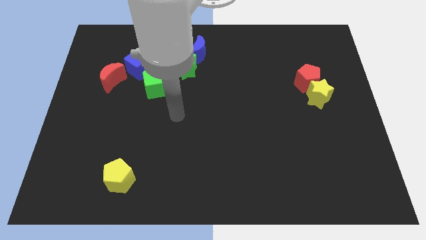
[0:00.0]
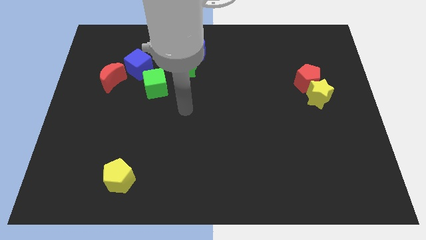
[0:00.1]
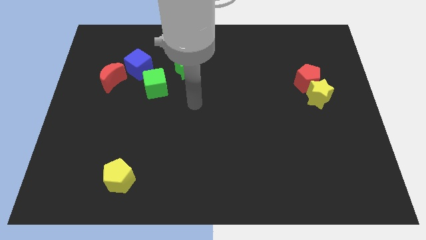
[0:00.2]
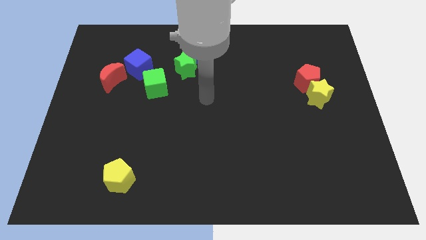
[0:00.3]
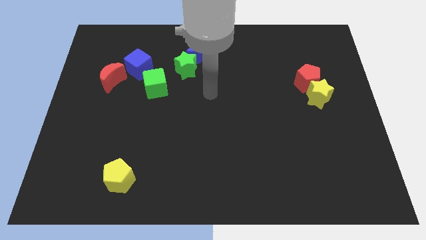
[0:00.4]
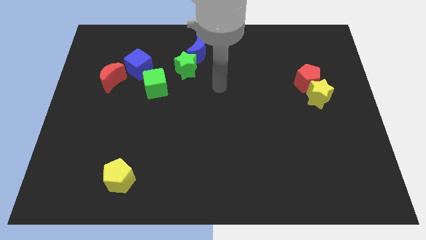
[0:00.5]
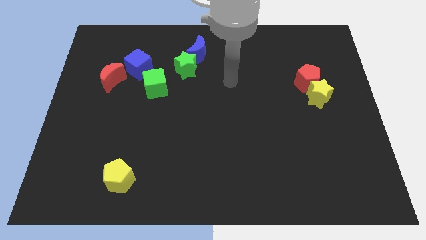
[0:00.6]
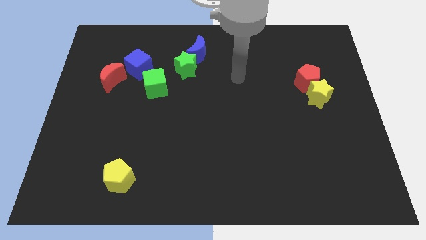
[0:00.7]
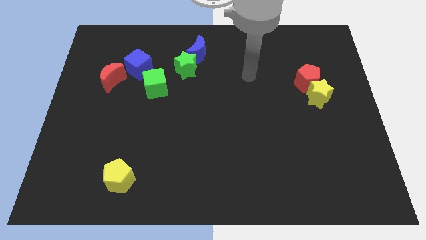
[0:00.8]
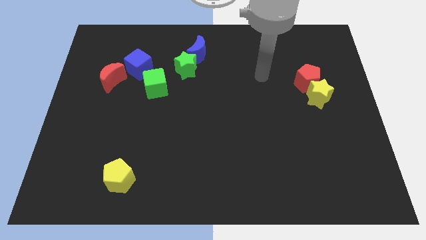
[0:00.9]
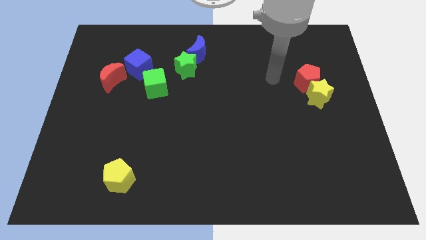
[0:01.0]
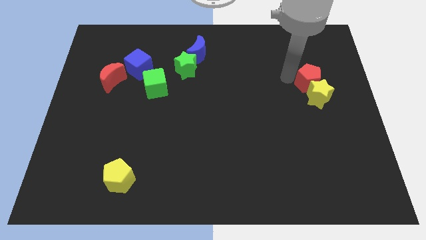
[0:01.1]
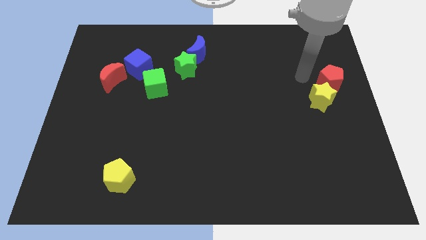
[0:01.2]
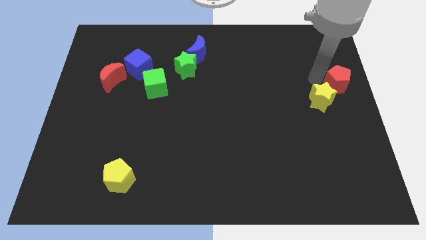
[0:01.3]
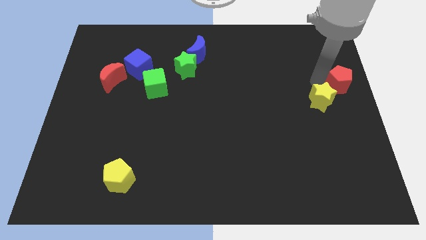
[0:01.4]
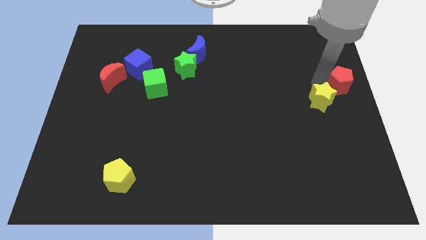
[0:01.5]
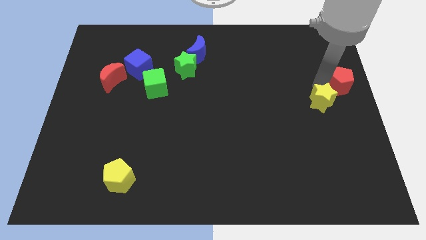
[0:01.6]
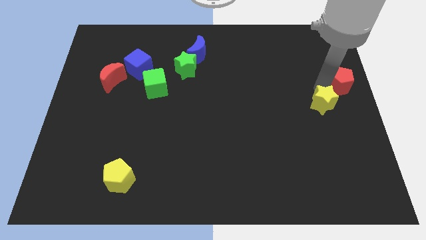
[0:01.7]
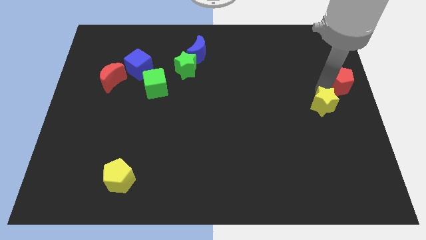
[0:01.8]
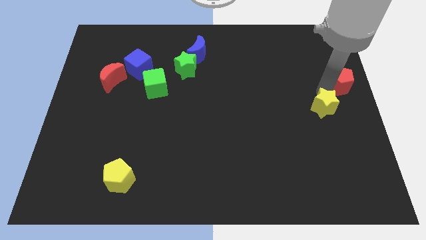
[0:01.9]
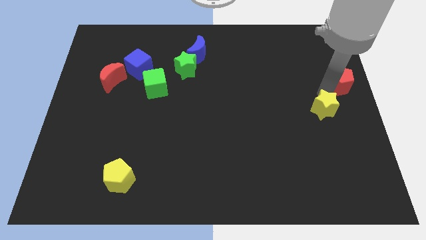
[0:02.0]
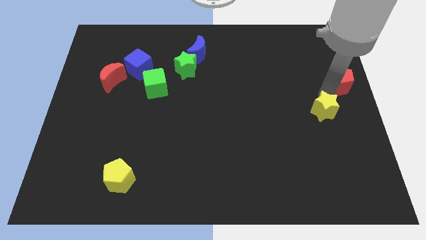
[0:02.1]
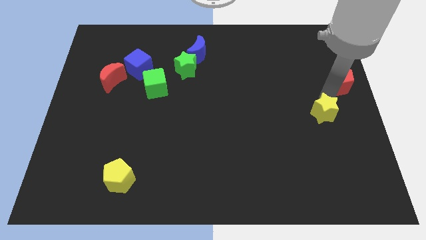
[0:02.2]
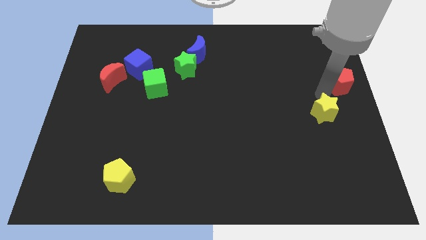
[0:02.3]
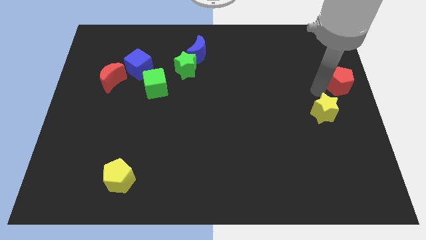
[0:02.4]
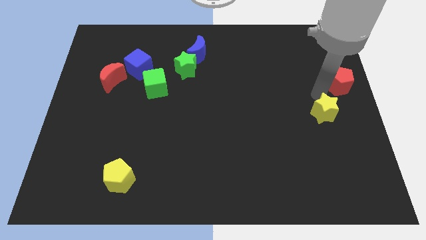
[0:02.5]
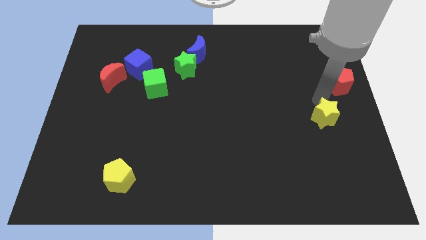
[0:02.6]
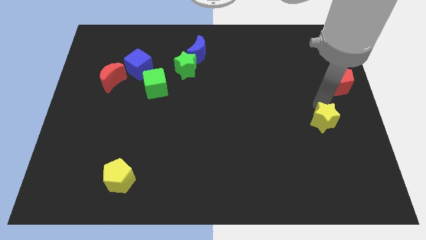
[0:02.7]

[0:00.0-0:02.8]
slightly move the yellow star downwards

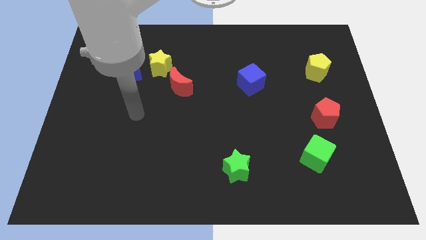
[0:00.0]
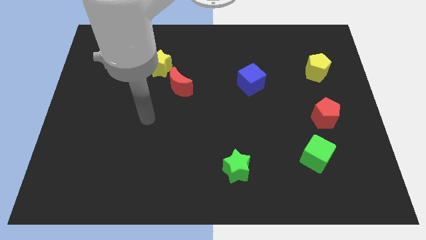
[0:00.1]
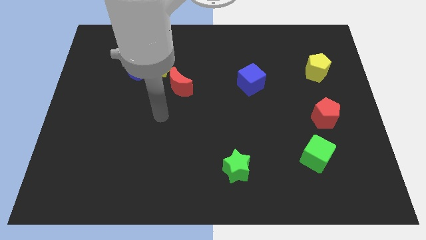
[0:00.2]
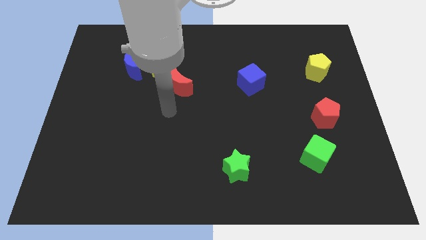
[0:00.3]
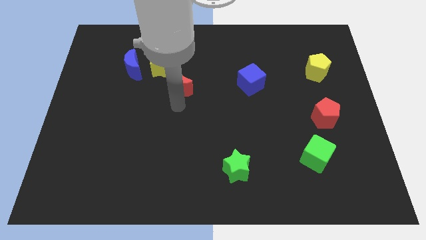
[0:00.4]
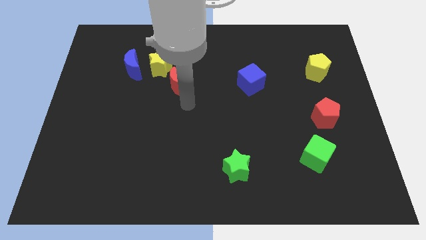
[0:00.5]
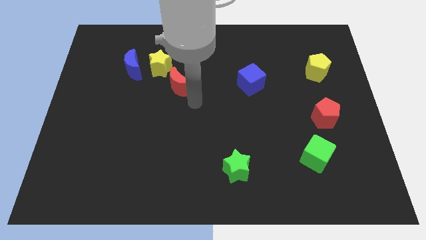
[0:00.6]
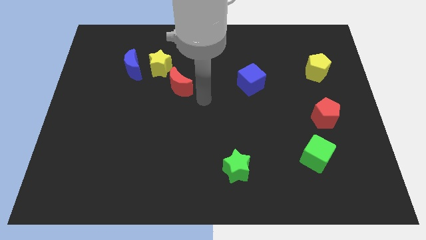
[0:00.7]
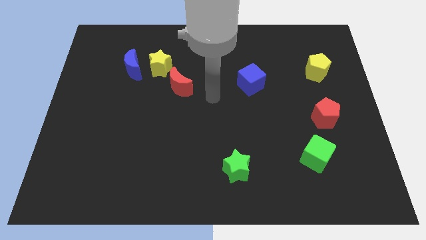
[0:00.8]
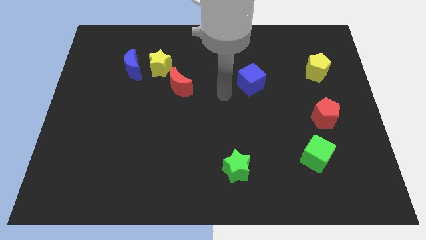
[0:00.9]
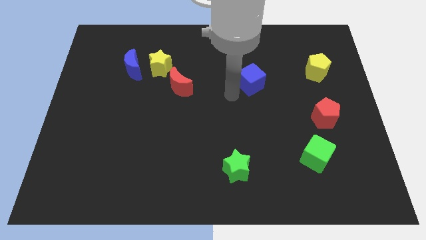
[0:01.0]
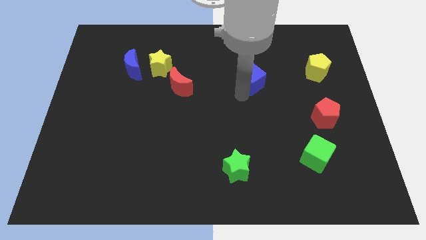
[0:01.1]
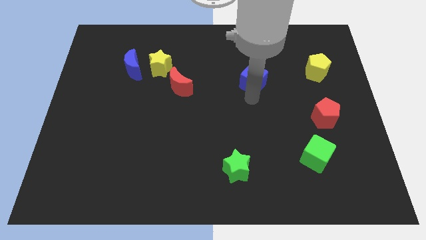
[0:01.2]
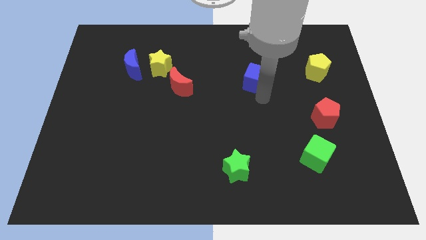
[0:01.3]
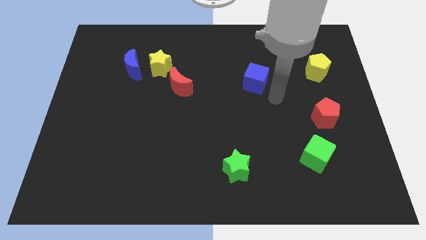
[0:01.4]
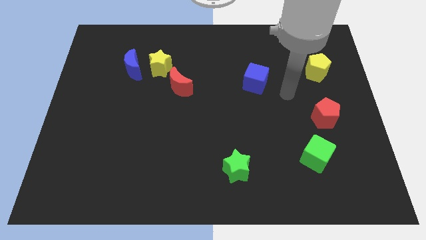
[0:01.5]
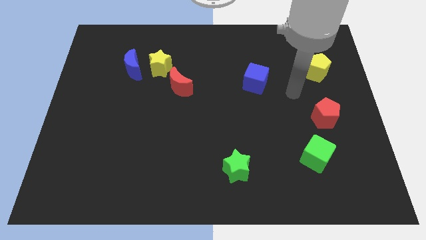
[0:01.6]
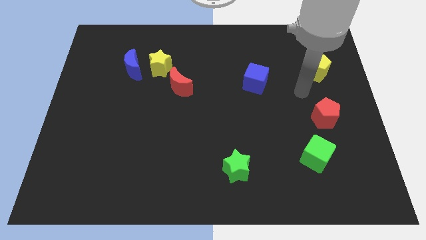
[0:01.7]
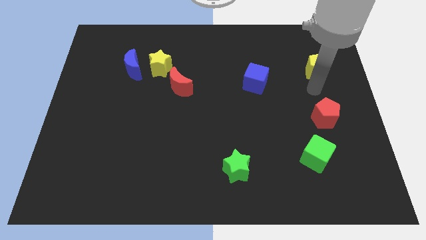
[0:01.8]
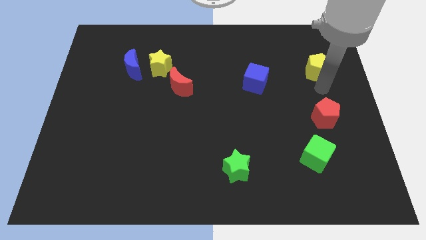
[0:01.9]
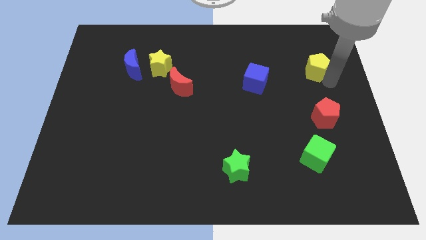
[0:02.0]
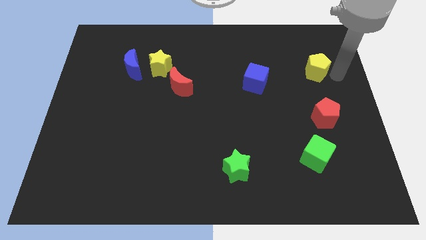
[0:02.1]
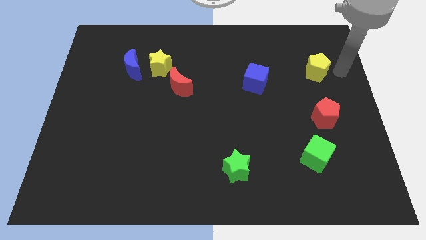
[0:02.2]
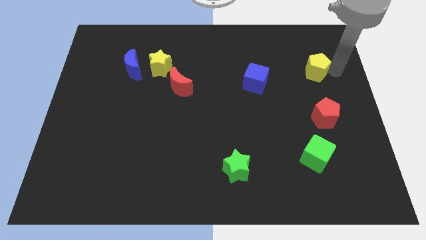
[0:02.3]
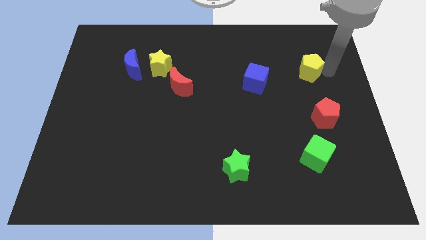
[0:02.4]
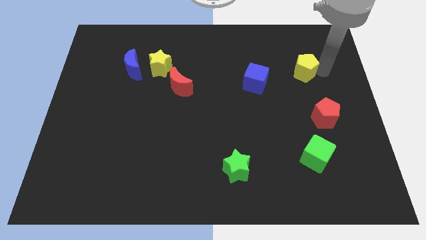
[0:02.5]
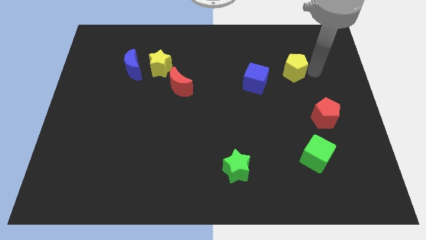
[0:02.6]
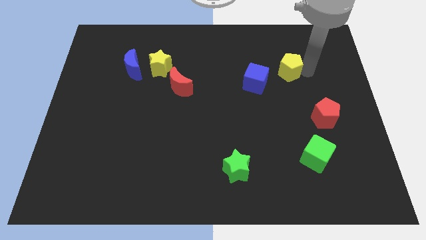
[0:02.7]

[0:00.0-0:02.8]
push the yellow pentagon left a bit

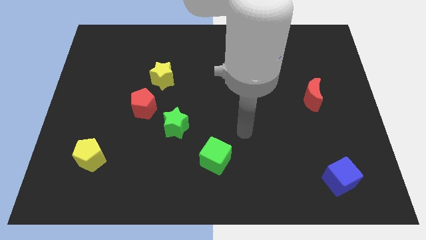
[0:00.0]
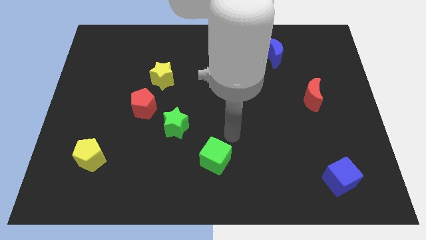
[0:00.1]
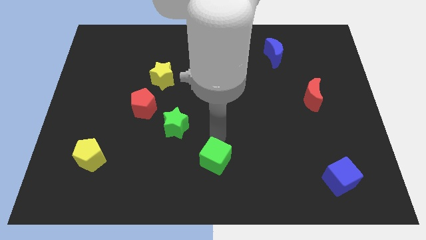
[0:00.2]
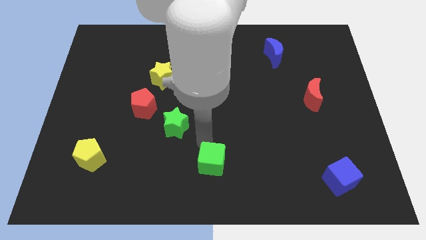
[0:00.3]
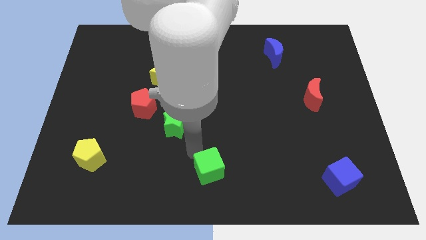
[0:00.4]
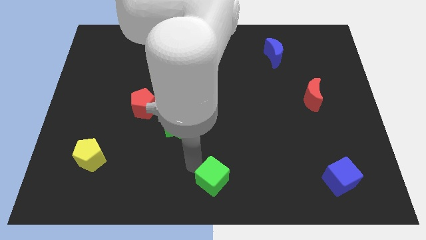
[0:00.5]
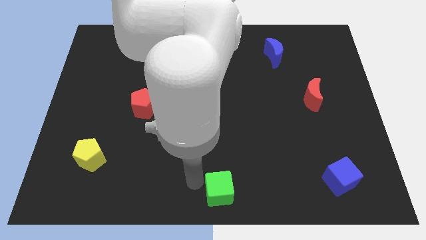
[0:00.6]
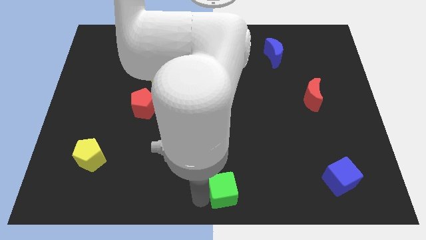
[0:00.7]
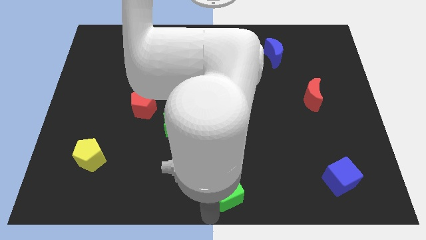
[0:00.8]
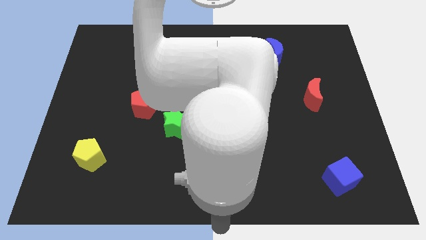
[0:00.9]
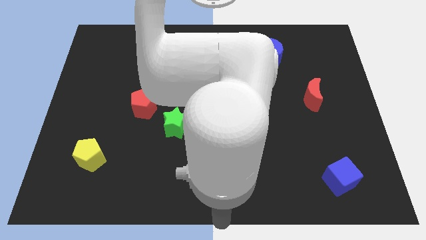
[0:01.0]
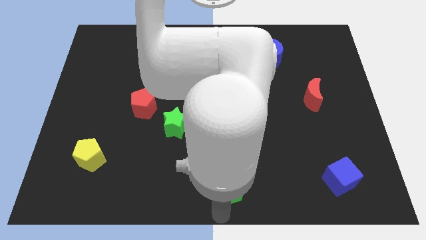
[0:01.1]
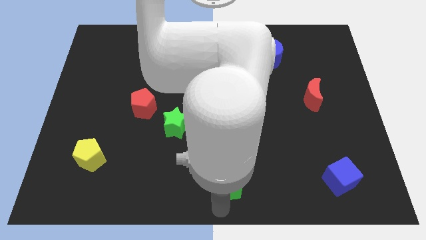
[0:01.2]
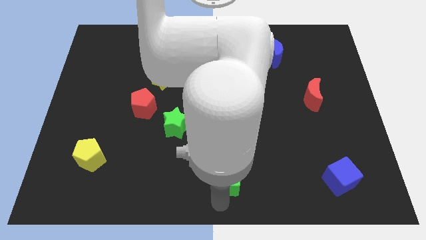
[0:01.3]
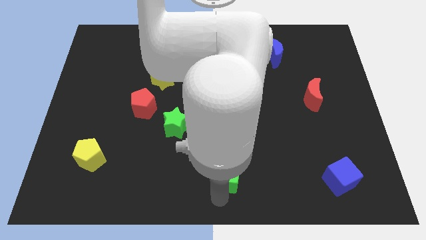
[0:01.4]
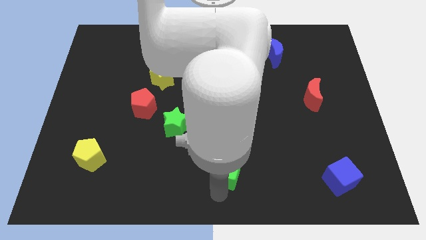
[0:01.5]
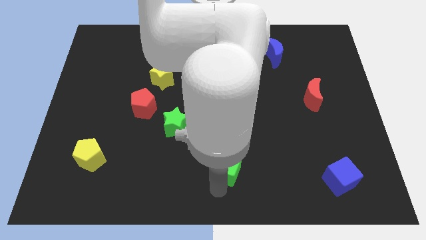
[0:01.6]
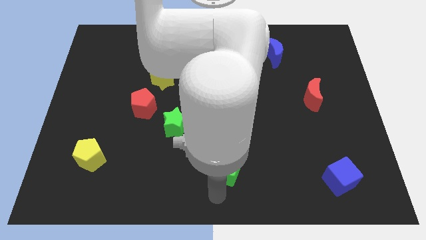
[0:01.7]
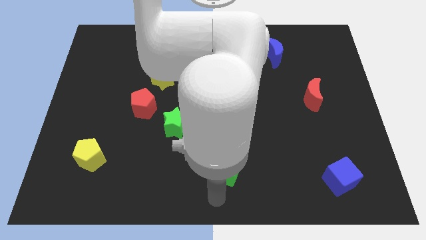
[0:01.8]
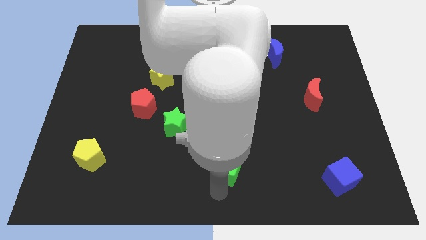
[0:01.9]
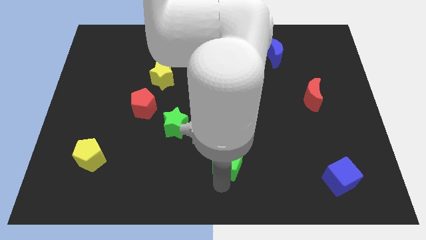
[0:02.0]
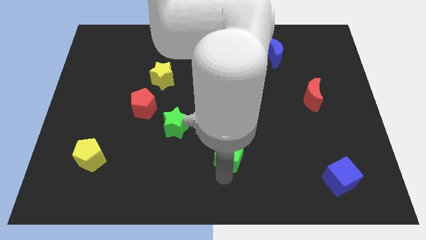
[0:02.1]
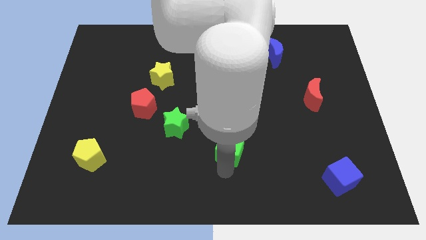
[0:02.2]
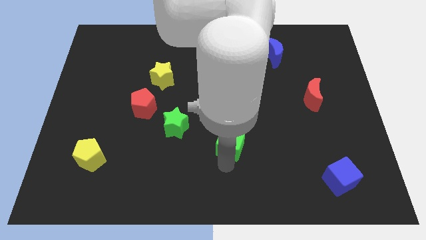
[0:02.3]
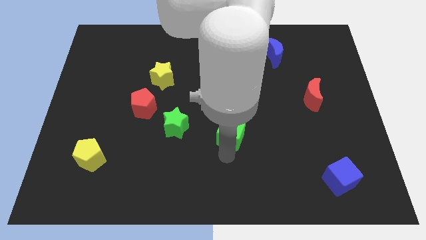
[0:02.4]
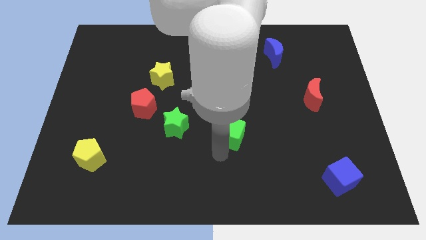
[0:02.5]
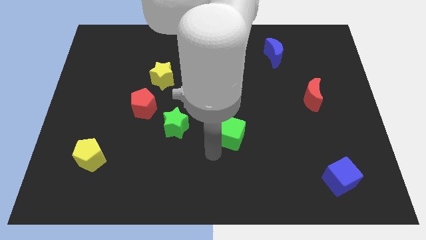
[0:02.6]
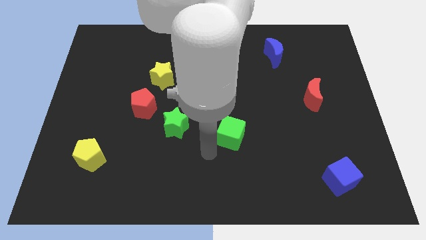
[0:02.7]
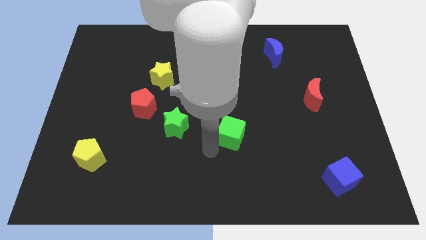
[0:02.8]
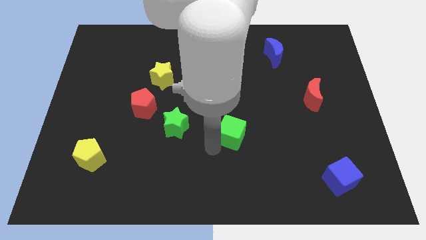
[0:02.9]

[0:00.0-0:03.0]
slightly slide the green cube diagonally up and right
